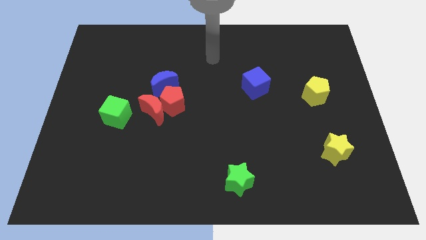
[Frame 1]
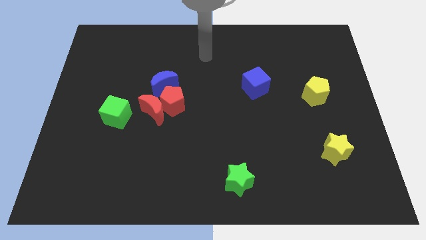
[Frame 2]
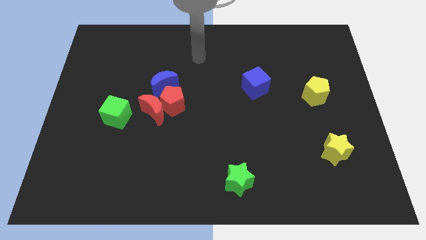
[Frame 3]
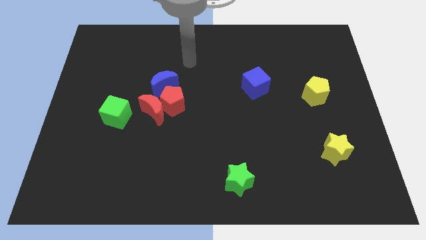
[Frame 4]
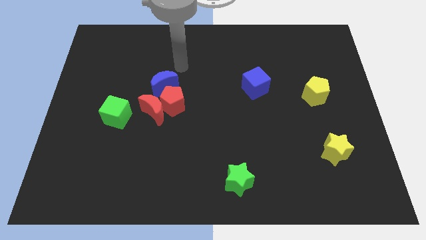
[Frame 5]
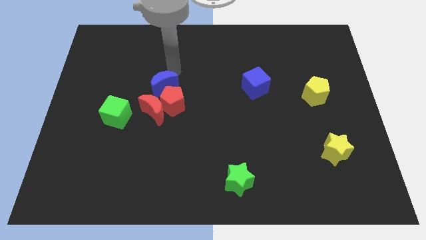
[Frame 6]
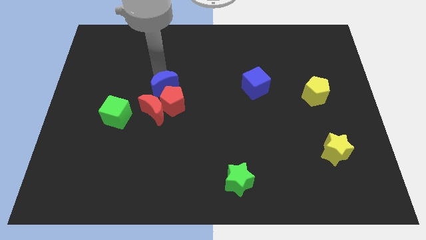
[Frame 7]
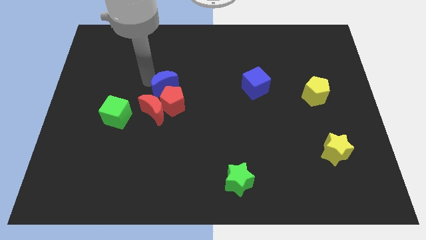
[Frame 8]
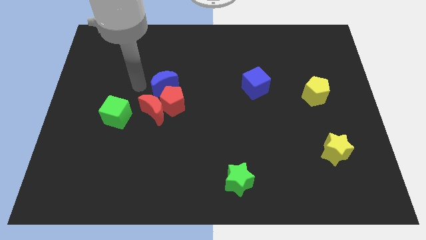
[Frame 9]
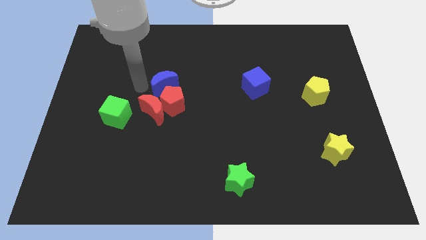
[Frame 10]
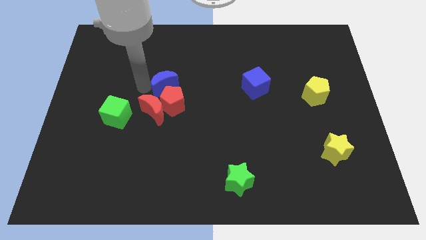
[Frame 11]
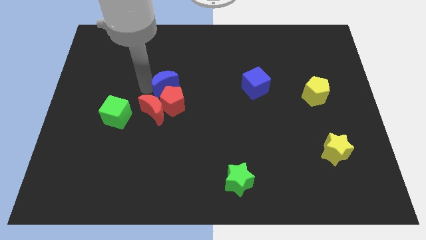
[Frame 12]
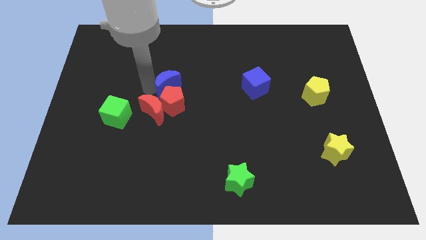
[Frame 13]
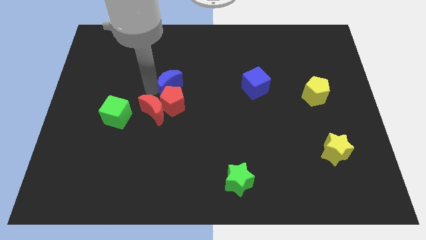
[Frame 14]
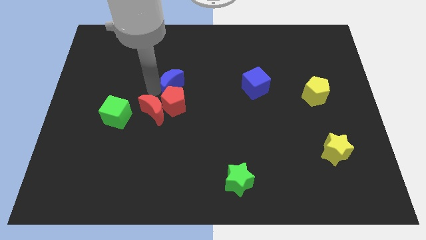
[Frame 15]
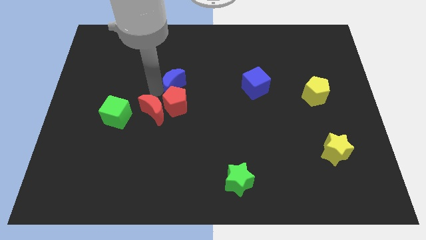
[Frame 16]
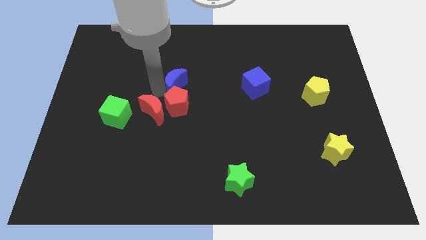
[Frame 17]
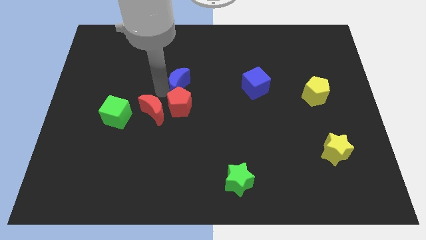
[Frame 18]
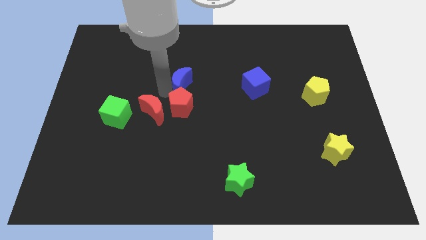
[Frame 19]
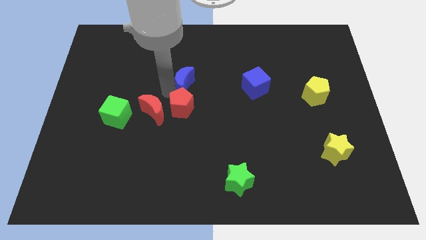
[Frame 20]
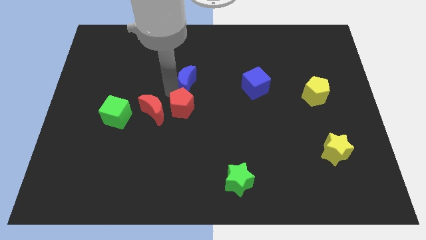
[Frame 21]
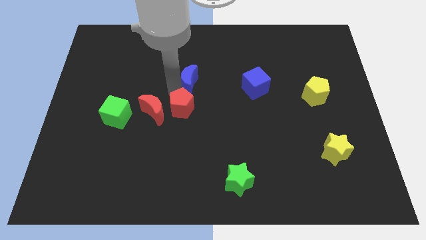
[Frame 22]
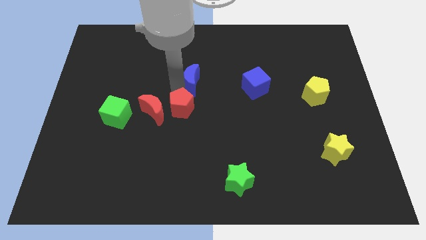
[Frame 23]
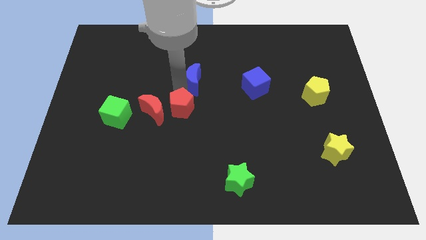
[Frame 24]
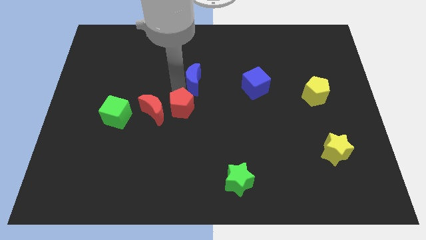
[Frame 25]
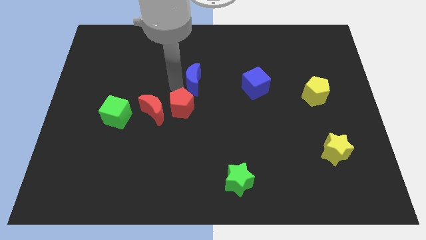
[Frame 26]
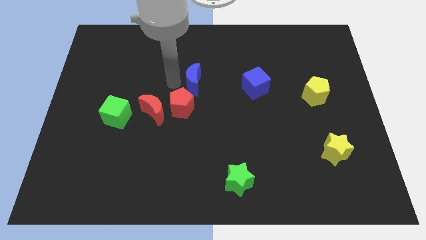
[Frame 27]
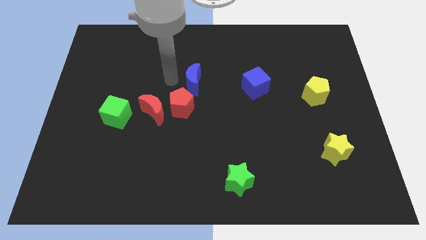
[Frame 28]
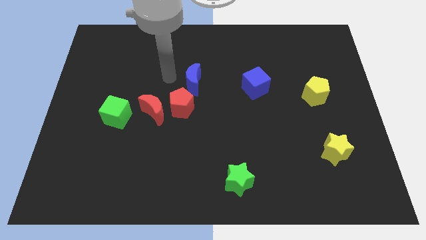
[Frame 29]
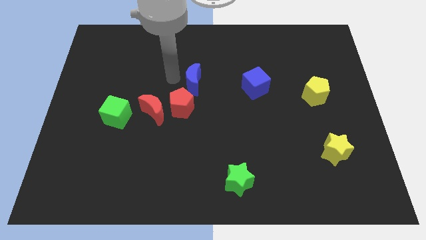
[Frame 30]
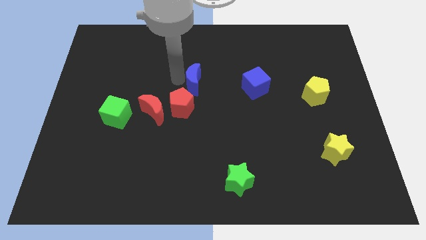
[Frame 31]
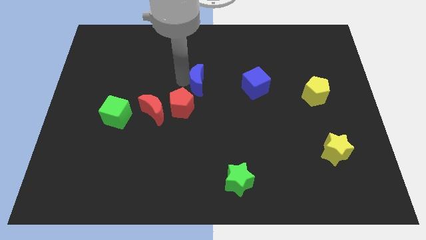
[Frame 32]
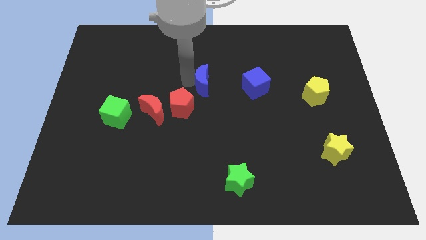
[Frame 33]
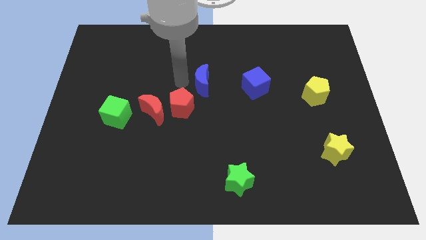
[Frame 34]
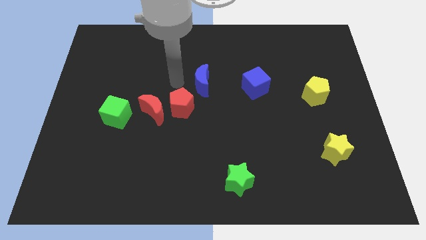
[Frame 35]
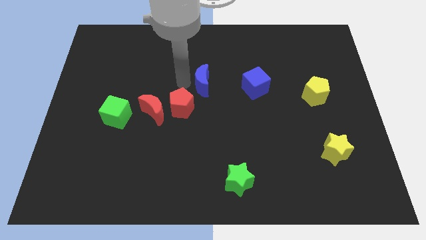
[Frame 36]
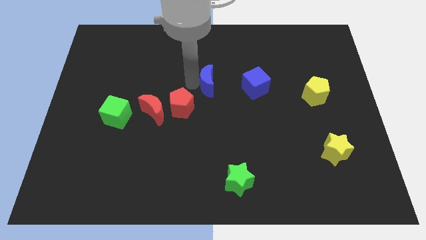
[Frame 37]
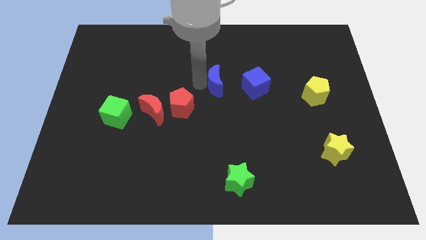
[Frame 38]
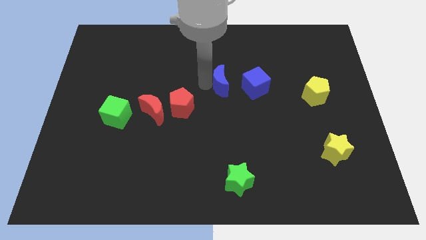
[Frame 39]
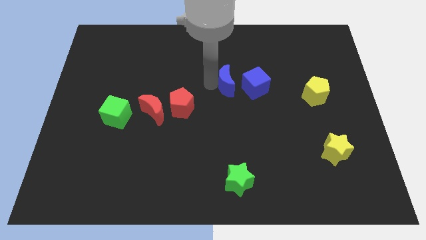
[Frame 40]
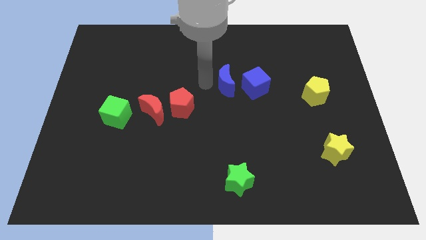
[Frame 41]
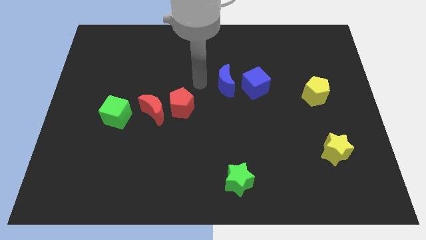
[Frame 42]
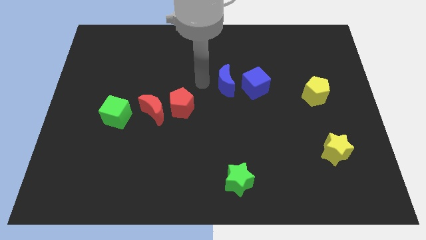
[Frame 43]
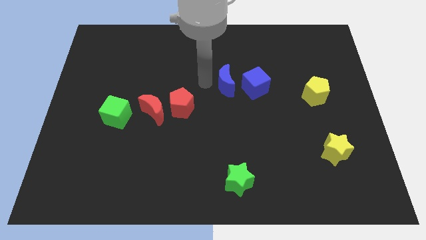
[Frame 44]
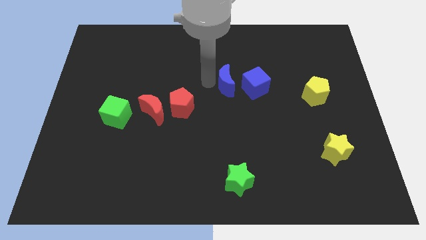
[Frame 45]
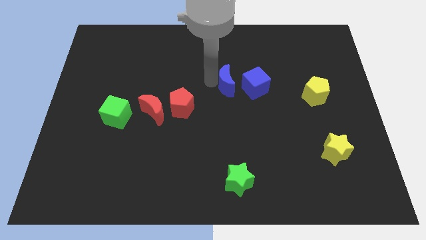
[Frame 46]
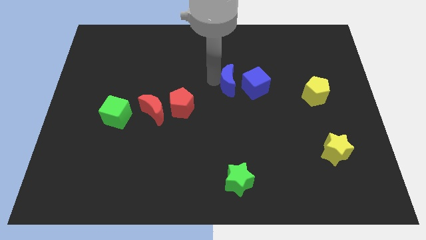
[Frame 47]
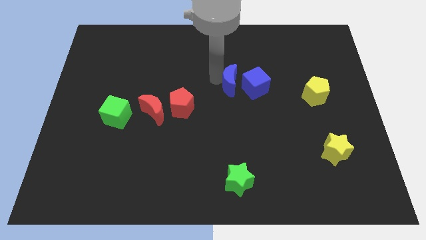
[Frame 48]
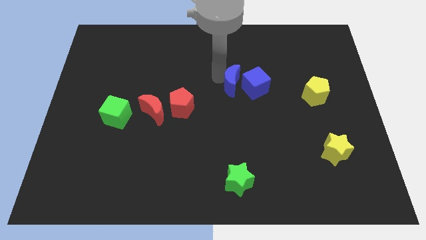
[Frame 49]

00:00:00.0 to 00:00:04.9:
slide the blue moon next to the blue cube

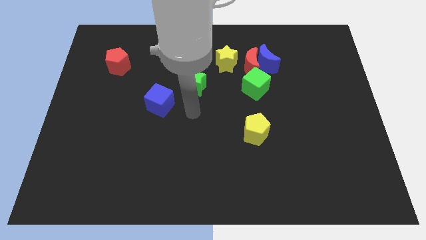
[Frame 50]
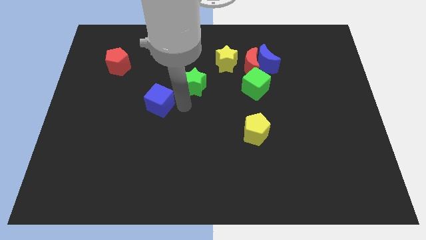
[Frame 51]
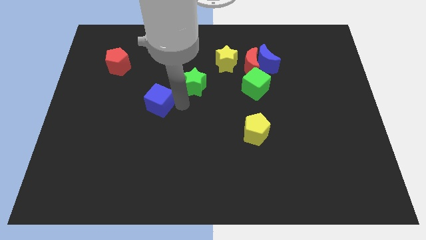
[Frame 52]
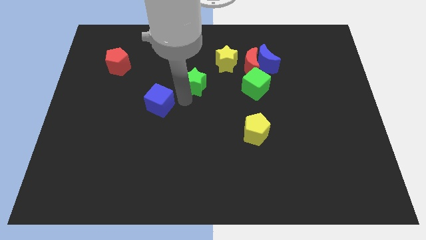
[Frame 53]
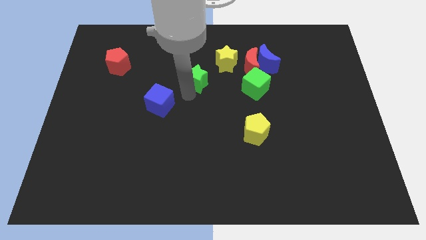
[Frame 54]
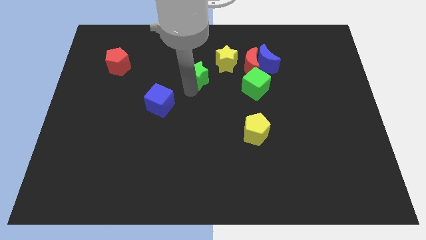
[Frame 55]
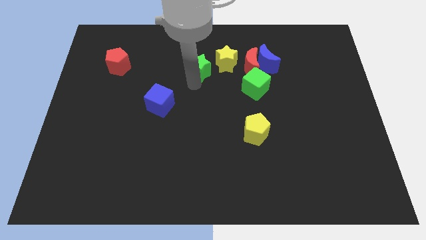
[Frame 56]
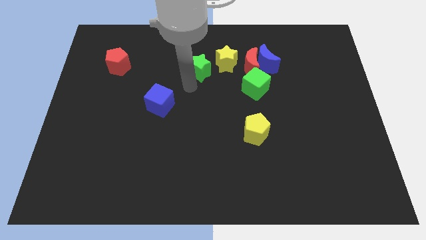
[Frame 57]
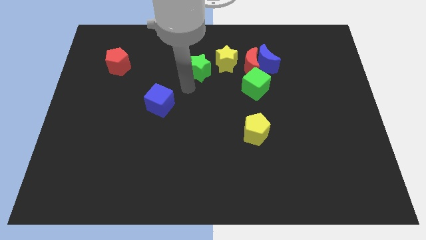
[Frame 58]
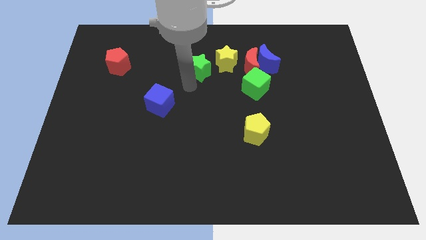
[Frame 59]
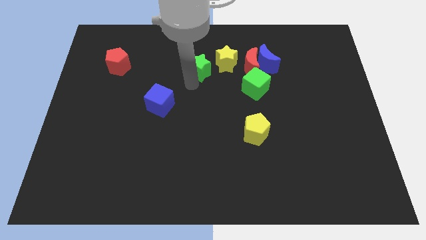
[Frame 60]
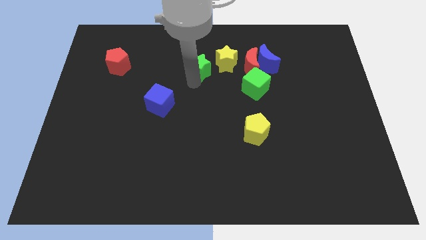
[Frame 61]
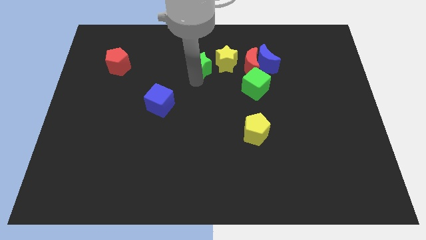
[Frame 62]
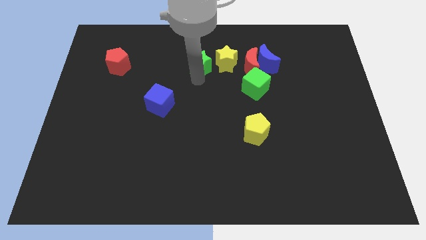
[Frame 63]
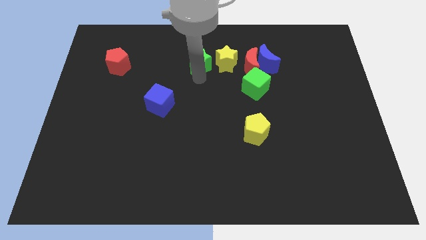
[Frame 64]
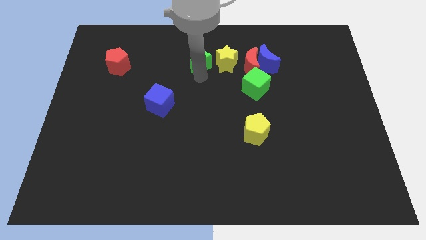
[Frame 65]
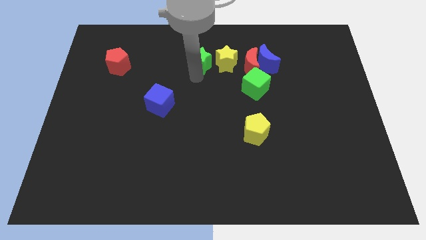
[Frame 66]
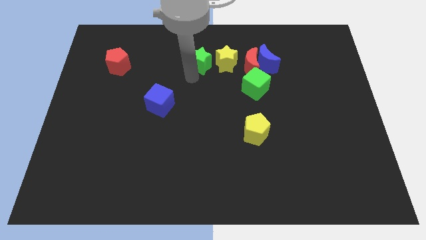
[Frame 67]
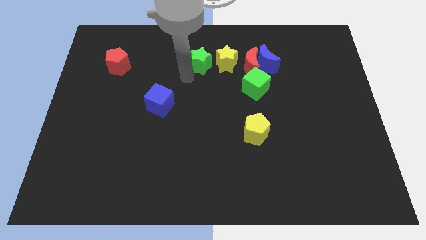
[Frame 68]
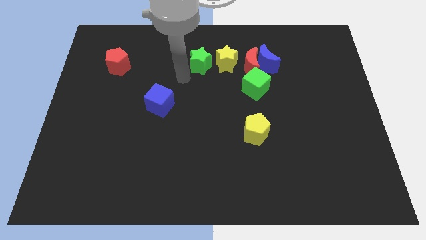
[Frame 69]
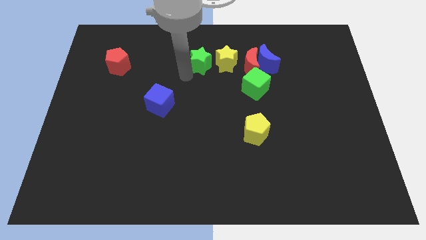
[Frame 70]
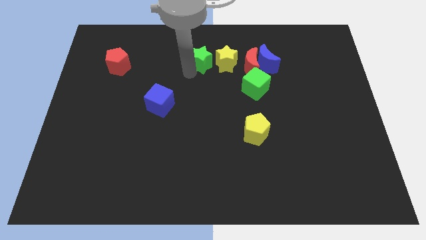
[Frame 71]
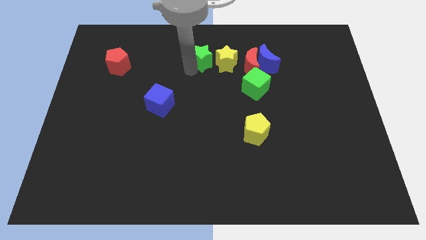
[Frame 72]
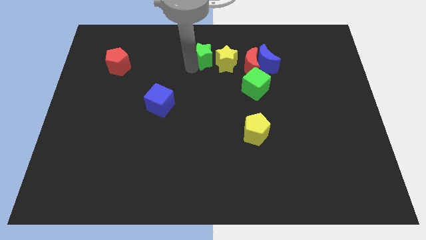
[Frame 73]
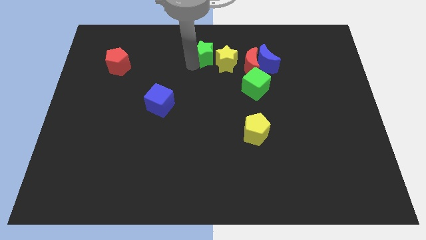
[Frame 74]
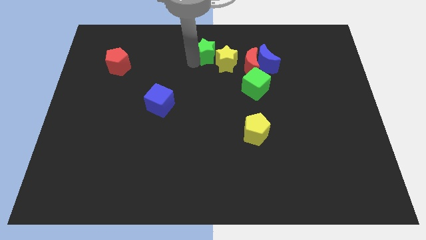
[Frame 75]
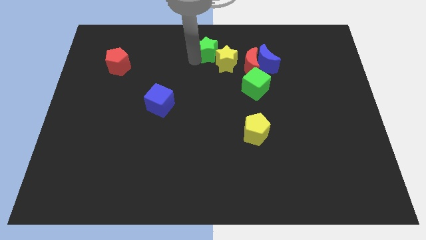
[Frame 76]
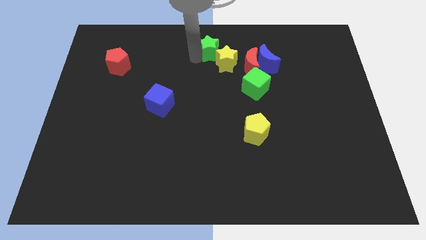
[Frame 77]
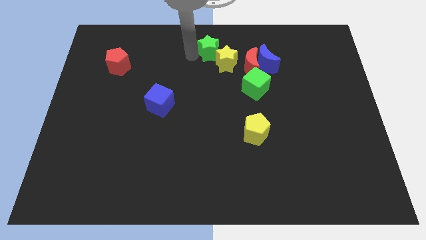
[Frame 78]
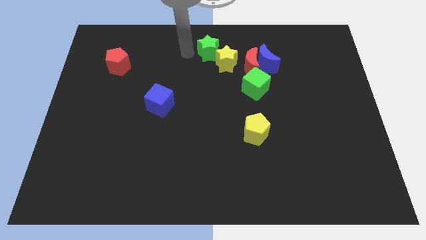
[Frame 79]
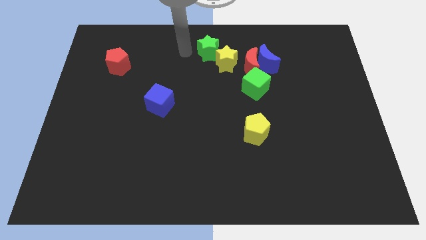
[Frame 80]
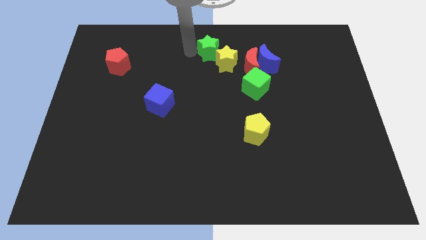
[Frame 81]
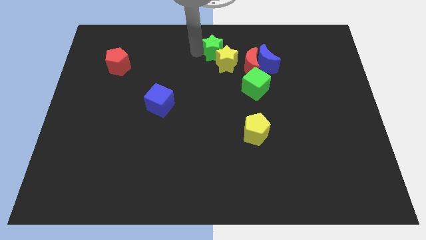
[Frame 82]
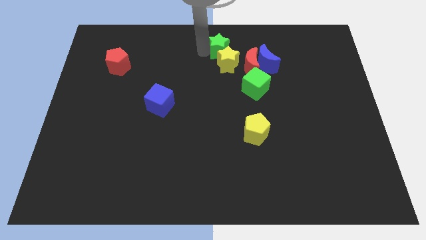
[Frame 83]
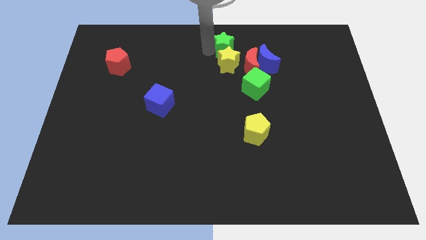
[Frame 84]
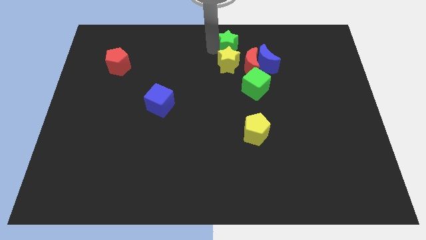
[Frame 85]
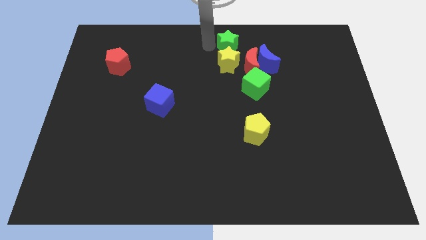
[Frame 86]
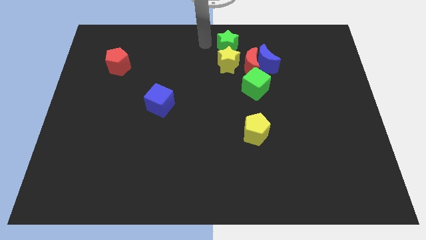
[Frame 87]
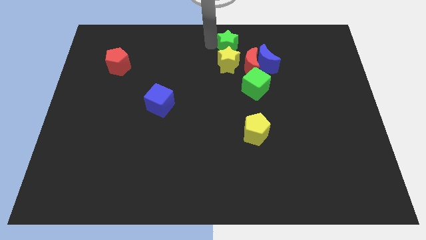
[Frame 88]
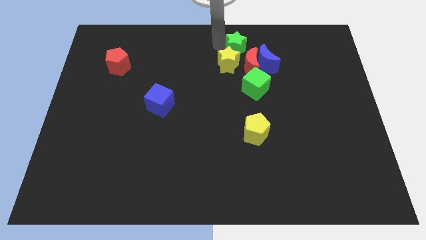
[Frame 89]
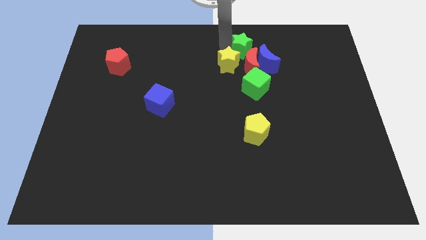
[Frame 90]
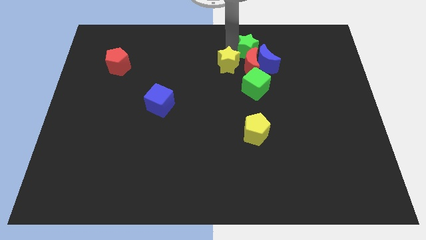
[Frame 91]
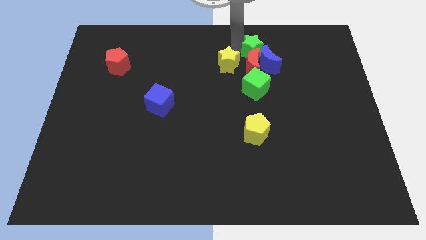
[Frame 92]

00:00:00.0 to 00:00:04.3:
push the green star close to the blue moon
